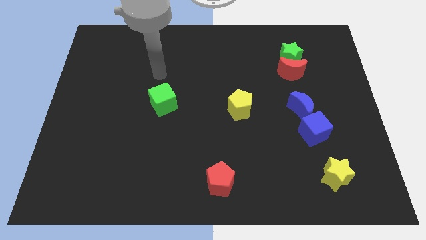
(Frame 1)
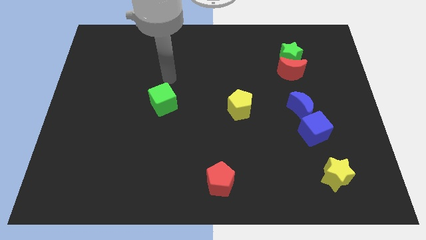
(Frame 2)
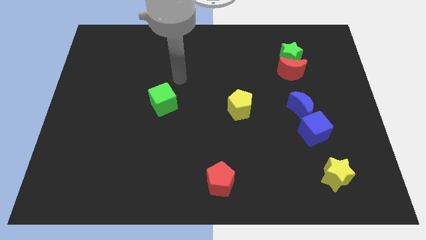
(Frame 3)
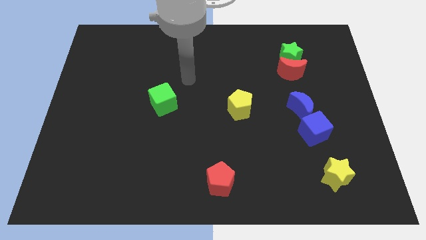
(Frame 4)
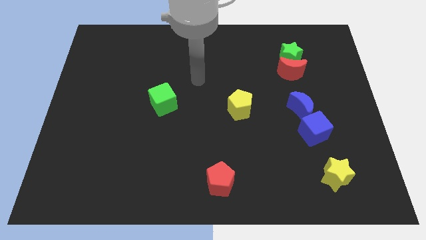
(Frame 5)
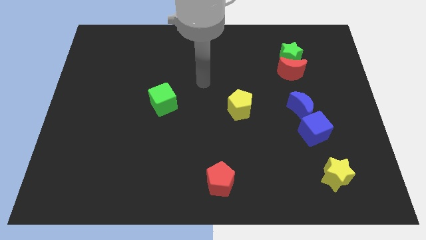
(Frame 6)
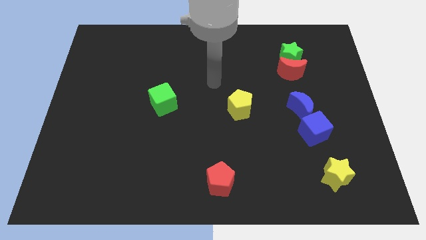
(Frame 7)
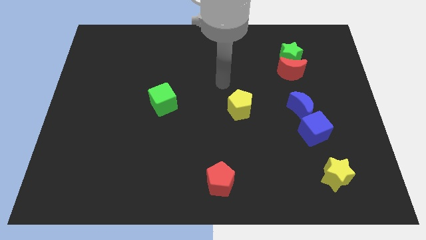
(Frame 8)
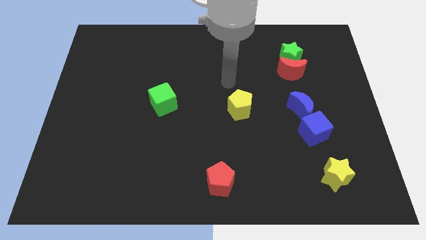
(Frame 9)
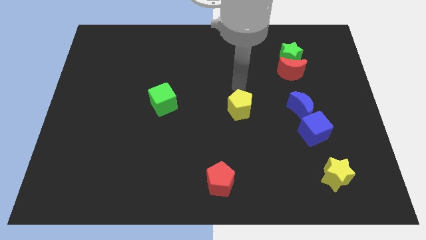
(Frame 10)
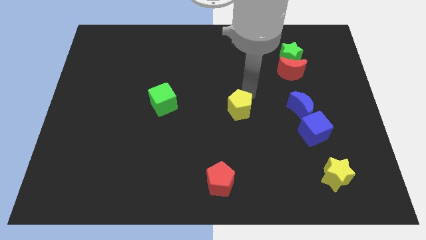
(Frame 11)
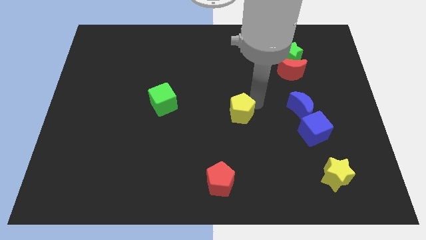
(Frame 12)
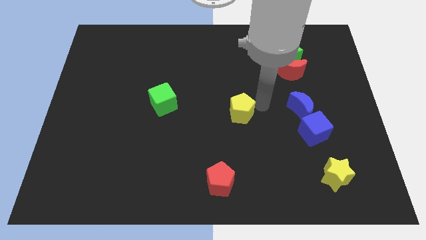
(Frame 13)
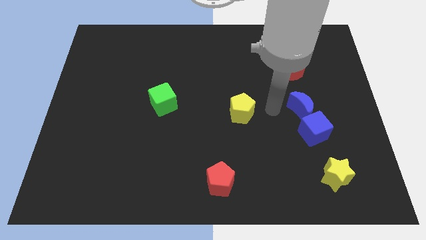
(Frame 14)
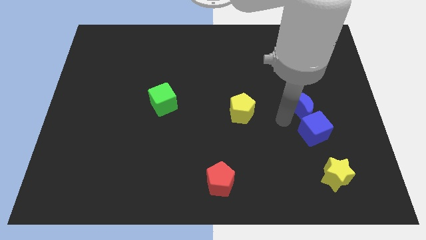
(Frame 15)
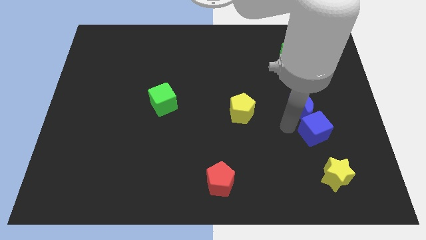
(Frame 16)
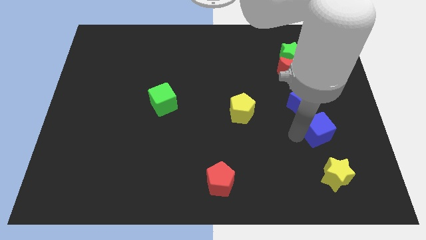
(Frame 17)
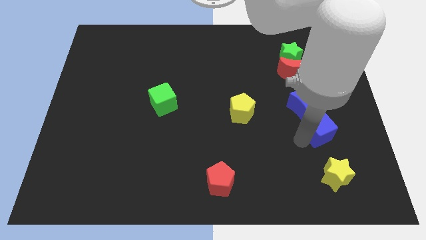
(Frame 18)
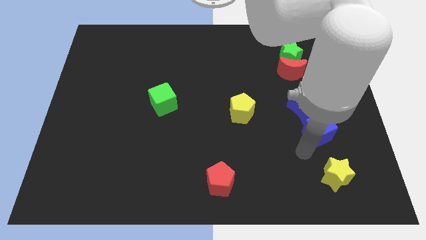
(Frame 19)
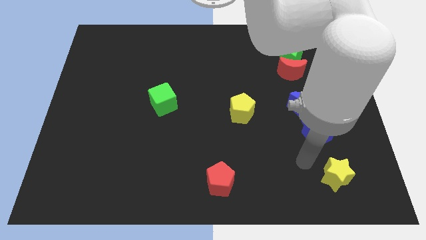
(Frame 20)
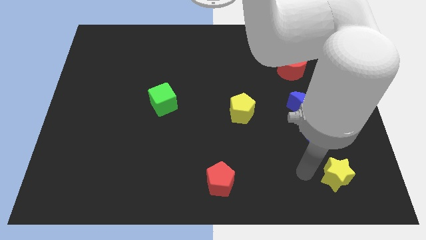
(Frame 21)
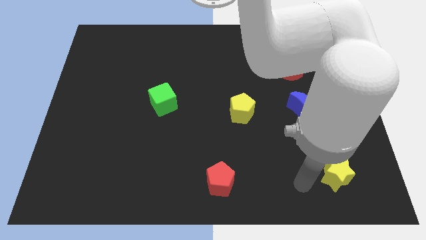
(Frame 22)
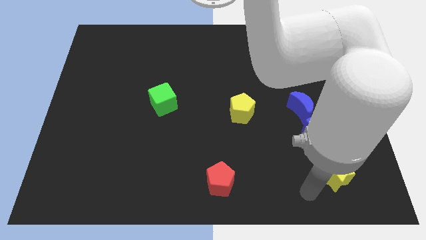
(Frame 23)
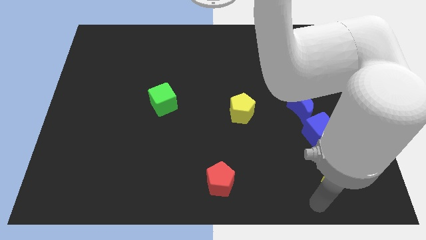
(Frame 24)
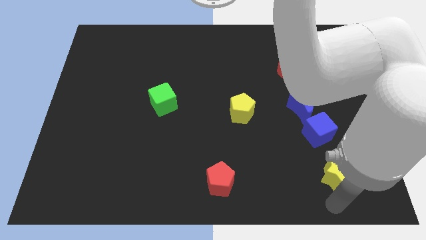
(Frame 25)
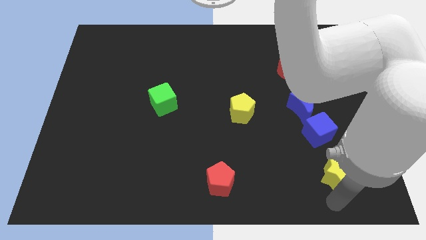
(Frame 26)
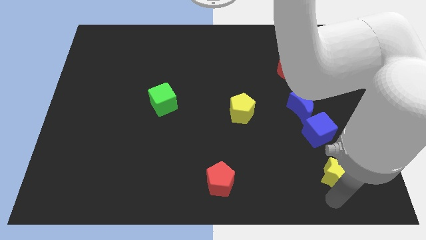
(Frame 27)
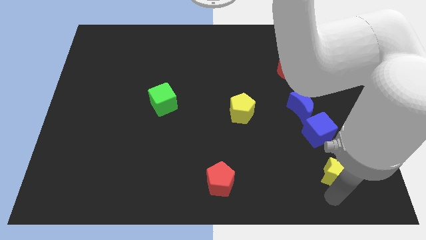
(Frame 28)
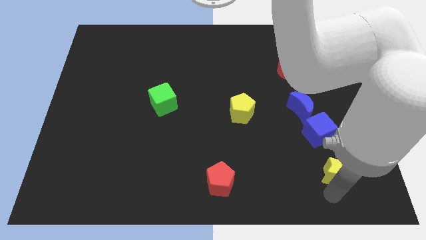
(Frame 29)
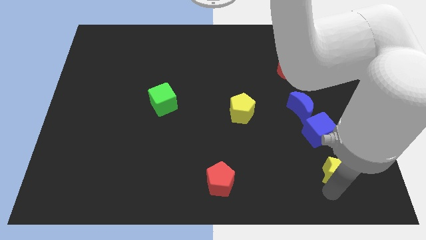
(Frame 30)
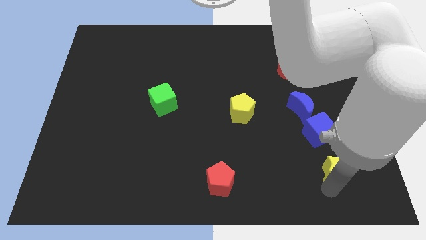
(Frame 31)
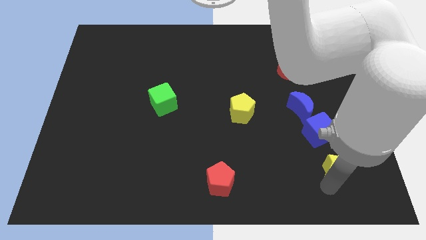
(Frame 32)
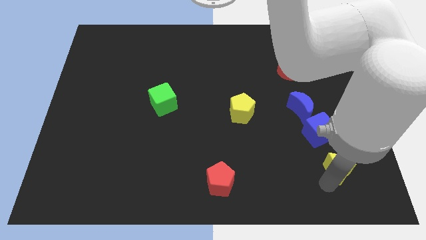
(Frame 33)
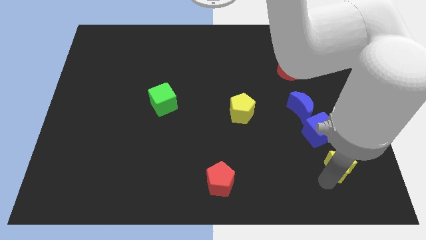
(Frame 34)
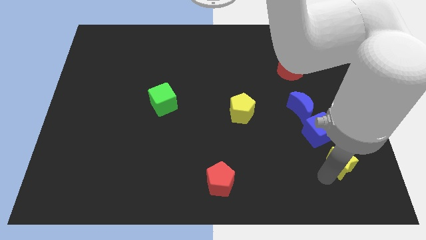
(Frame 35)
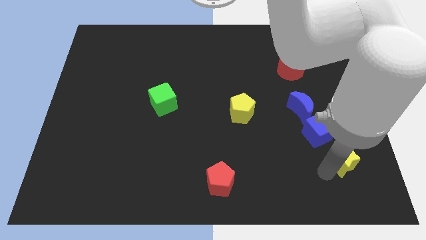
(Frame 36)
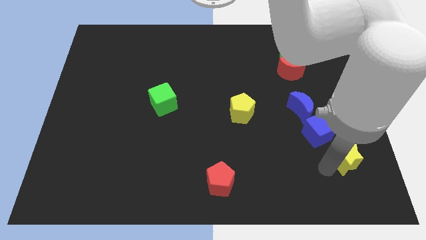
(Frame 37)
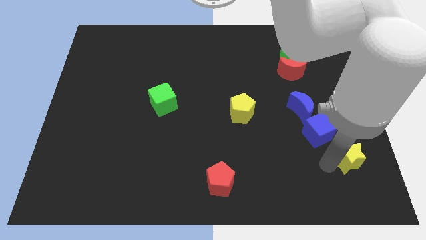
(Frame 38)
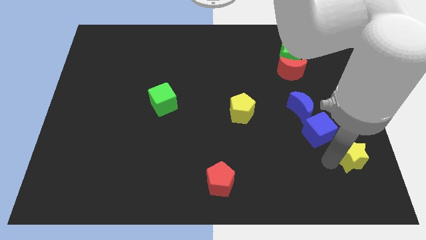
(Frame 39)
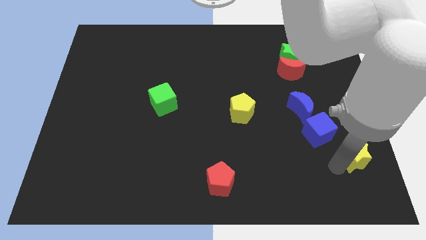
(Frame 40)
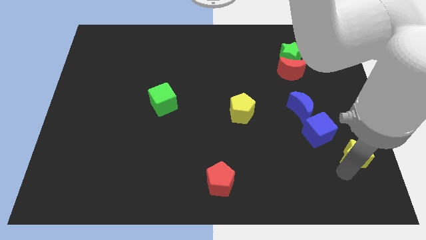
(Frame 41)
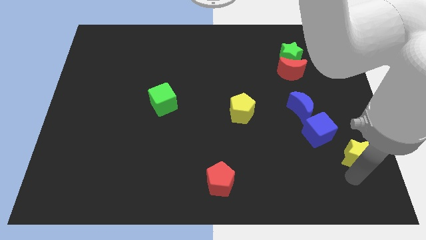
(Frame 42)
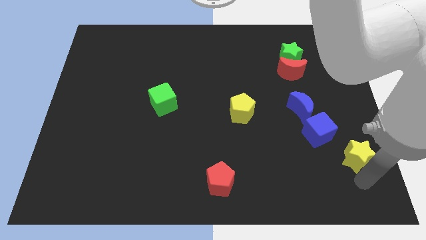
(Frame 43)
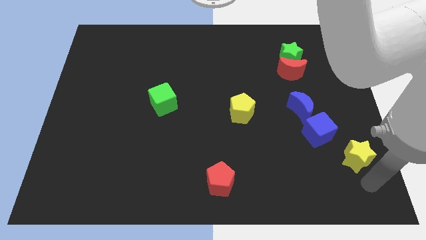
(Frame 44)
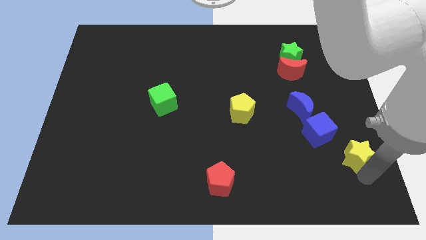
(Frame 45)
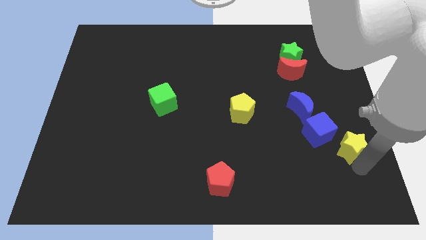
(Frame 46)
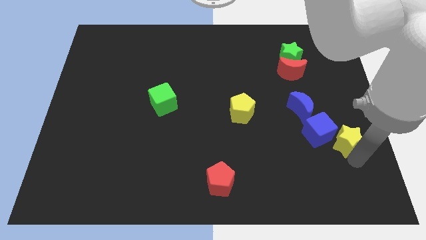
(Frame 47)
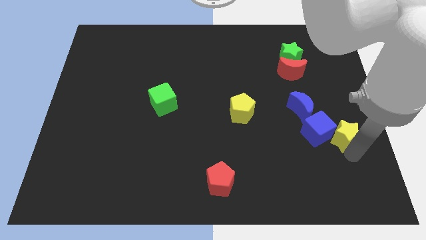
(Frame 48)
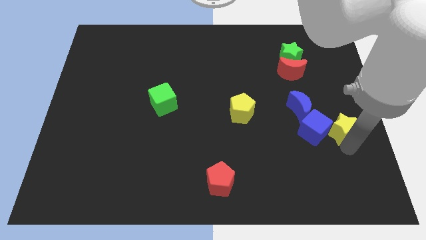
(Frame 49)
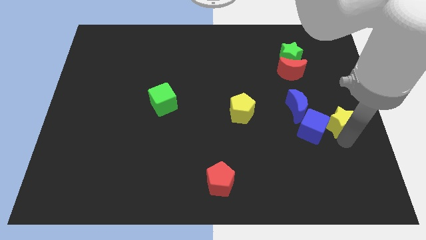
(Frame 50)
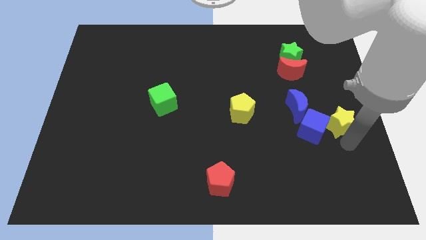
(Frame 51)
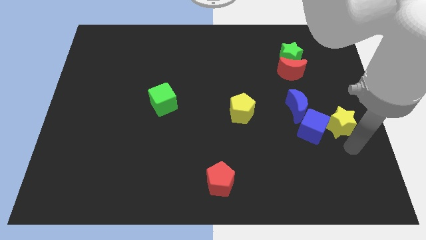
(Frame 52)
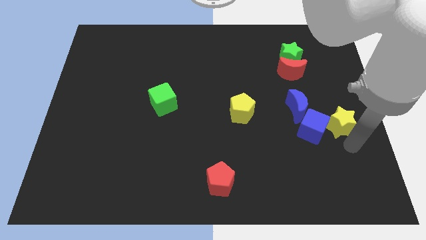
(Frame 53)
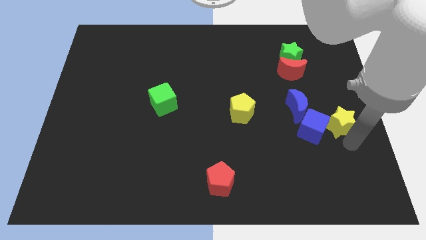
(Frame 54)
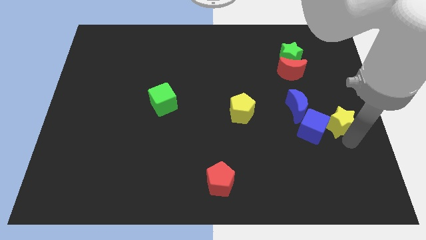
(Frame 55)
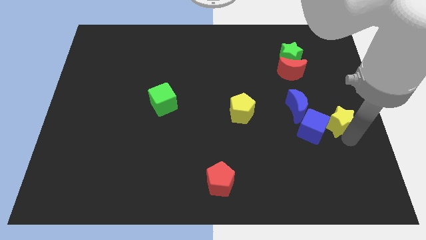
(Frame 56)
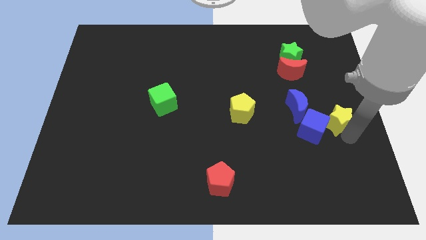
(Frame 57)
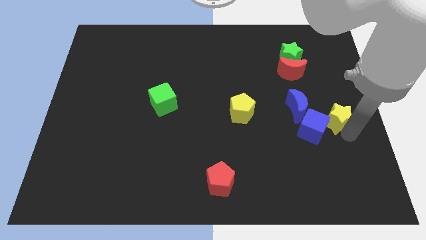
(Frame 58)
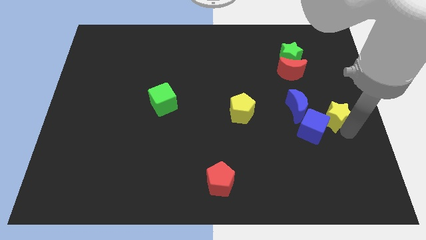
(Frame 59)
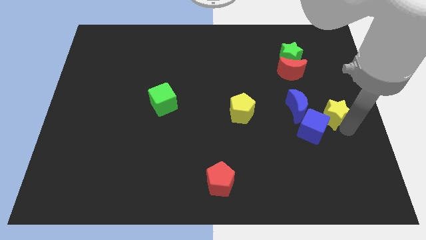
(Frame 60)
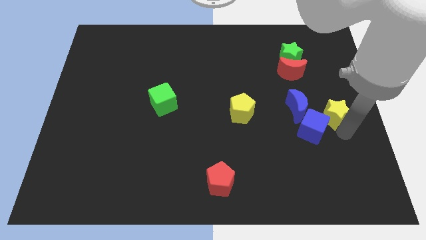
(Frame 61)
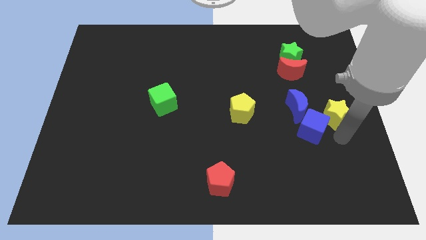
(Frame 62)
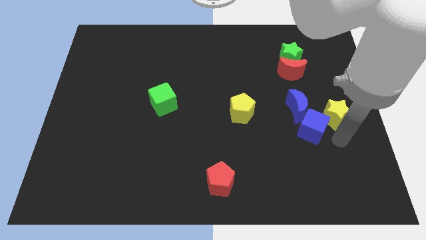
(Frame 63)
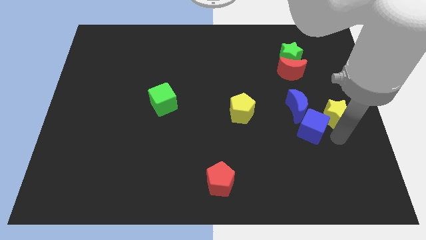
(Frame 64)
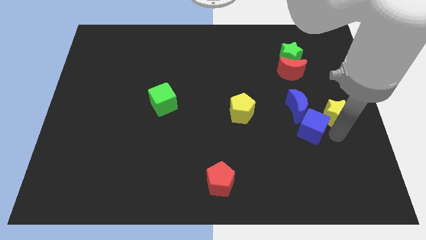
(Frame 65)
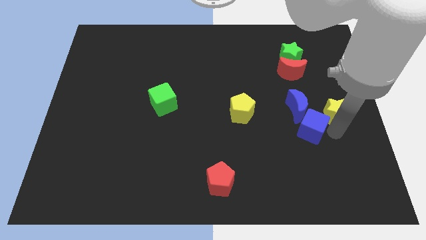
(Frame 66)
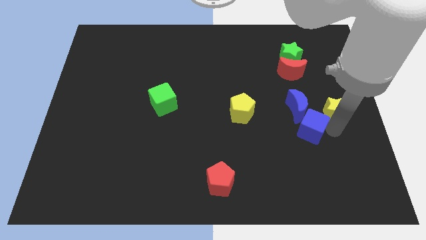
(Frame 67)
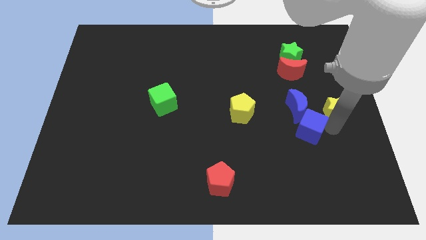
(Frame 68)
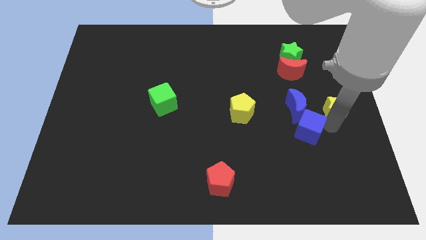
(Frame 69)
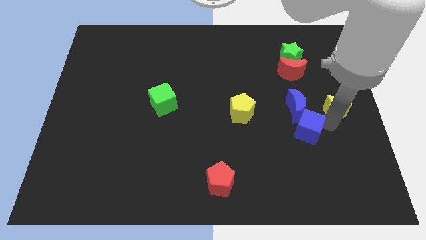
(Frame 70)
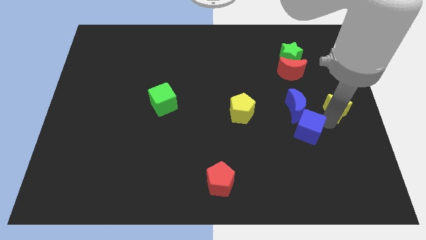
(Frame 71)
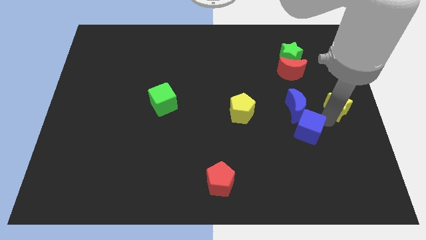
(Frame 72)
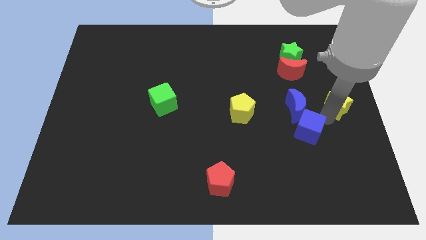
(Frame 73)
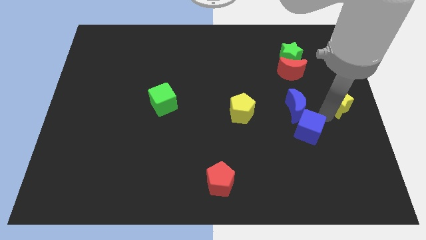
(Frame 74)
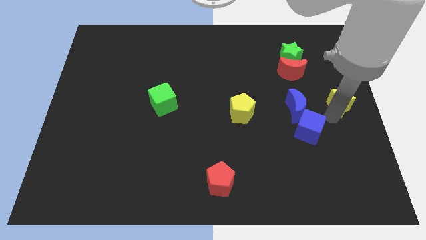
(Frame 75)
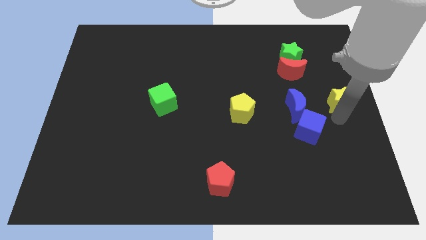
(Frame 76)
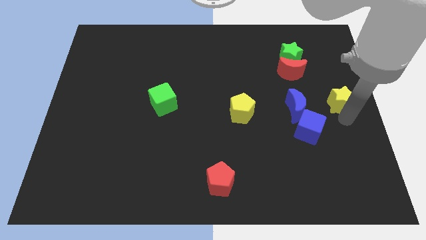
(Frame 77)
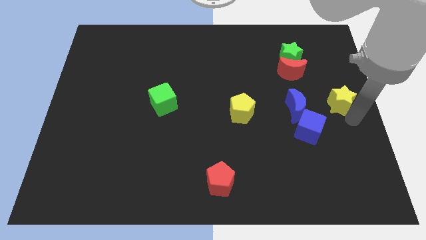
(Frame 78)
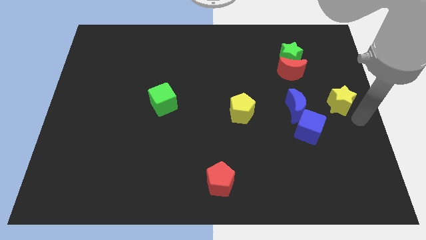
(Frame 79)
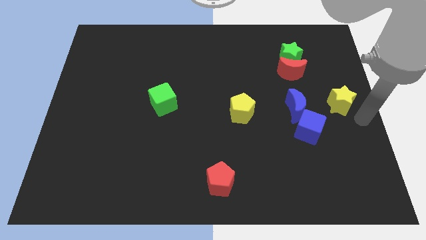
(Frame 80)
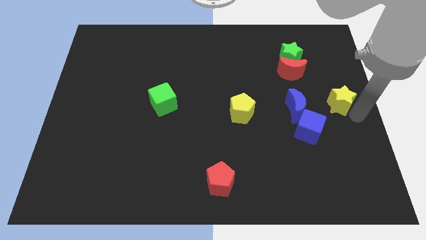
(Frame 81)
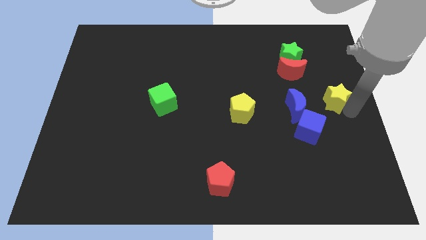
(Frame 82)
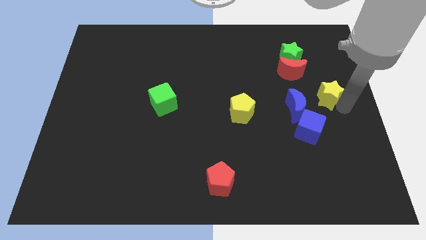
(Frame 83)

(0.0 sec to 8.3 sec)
put the yellow star to the bottom right side of the red moon
